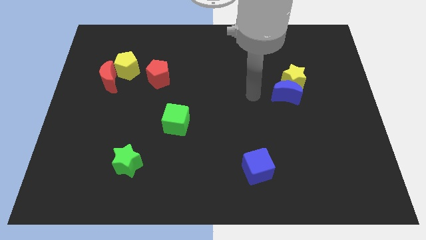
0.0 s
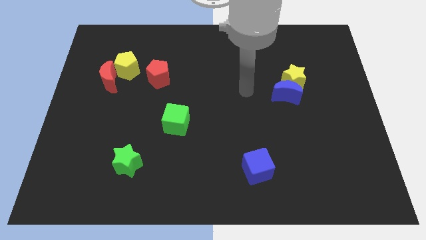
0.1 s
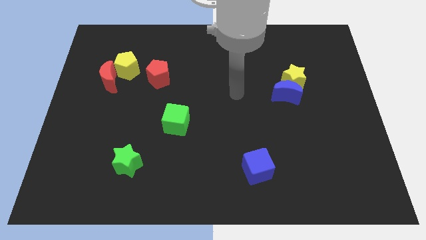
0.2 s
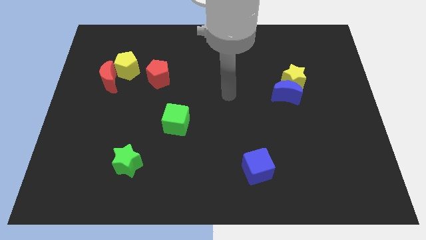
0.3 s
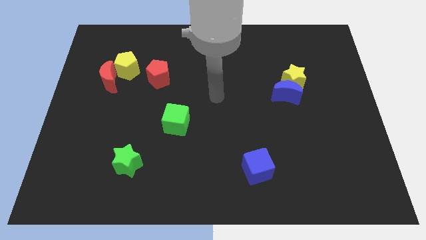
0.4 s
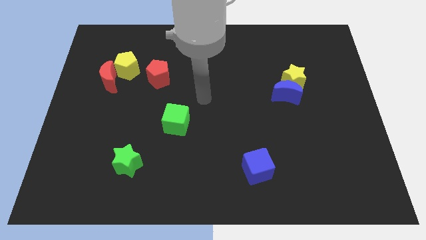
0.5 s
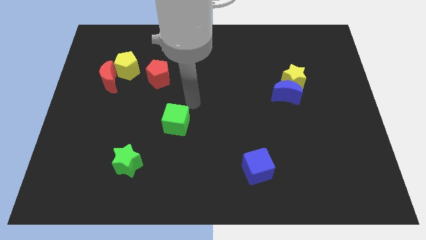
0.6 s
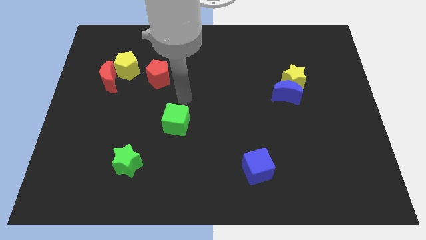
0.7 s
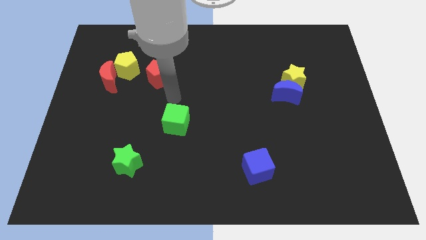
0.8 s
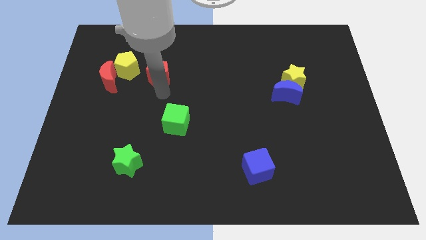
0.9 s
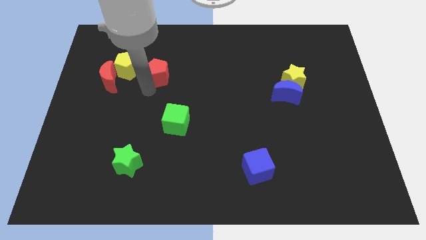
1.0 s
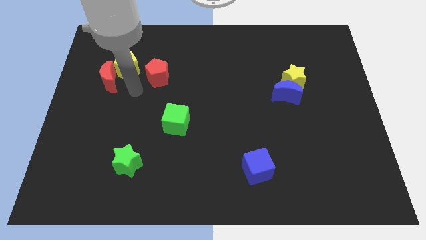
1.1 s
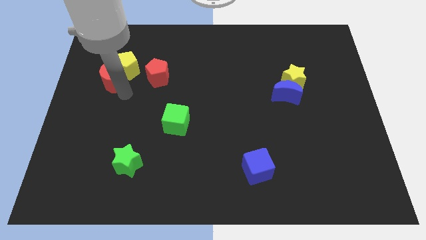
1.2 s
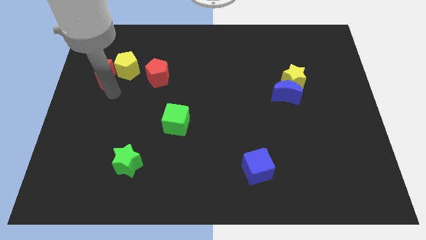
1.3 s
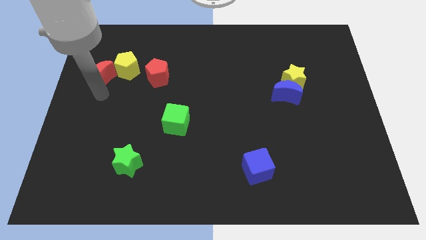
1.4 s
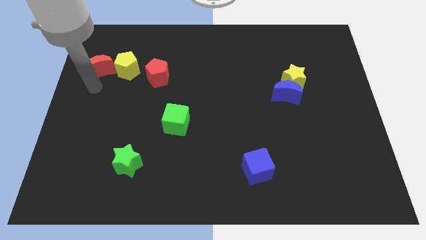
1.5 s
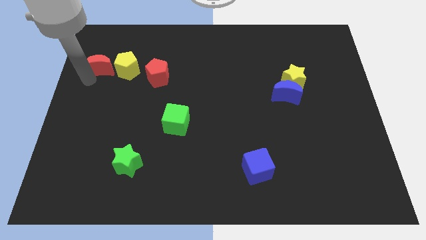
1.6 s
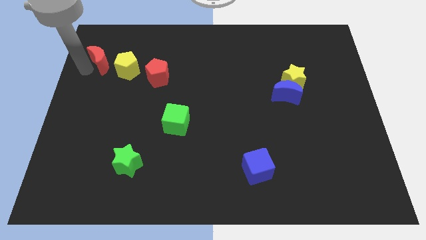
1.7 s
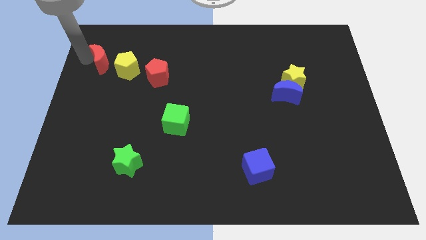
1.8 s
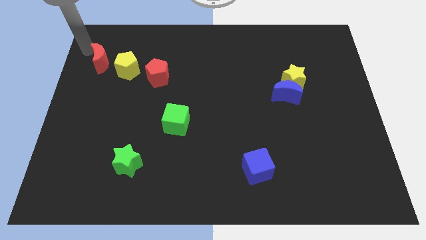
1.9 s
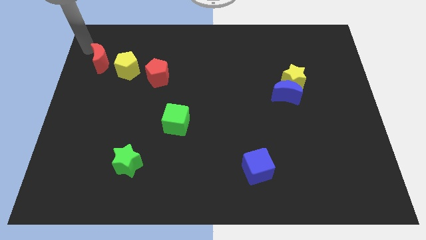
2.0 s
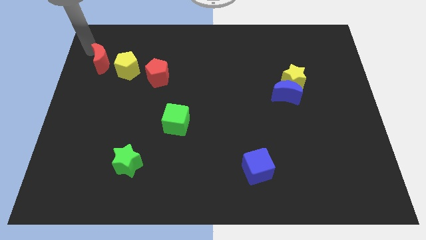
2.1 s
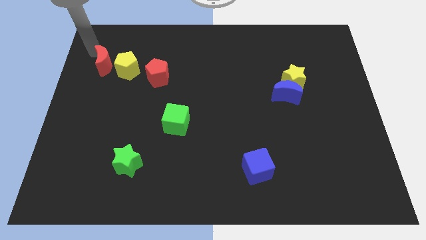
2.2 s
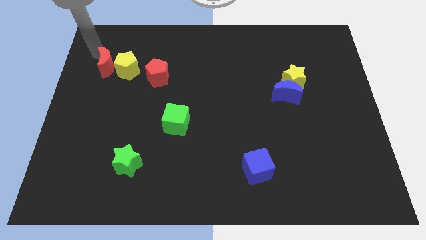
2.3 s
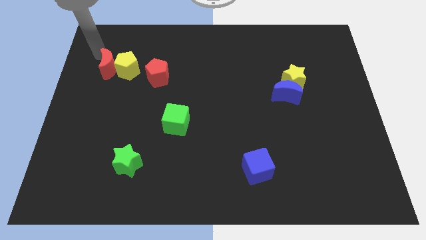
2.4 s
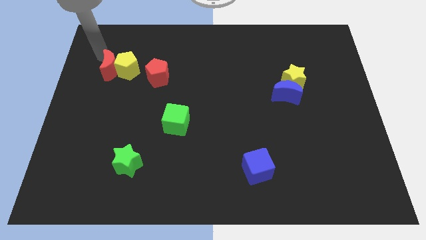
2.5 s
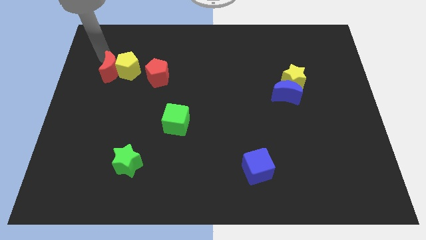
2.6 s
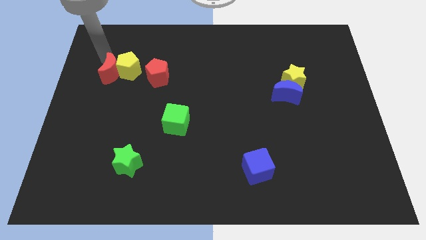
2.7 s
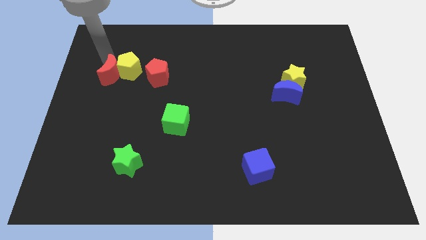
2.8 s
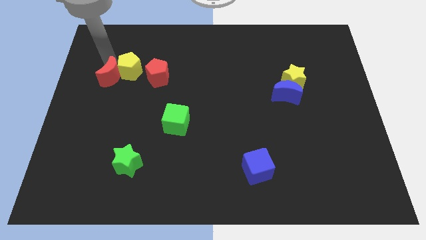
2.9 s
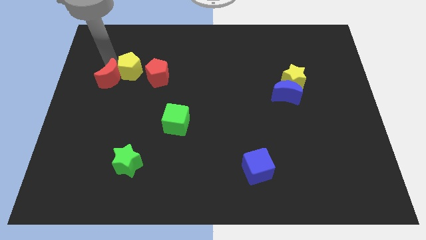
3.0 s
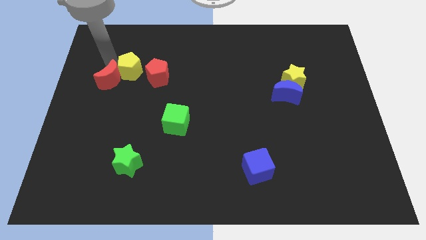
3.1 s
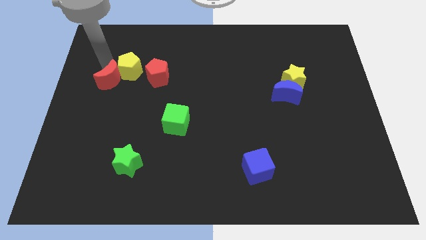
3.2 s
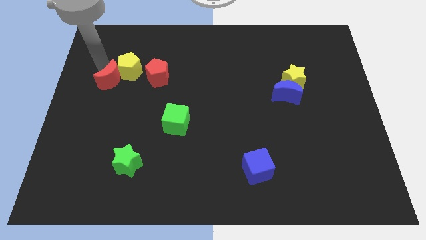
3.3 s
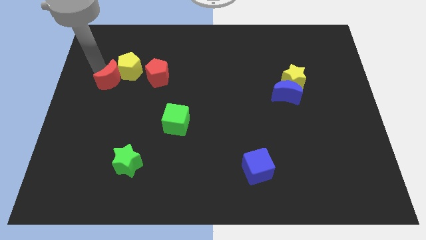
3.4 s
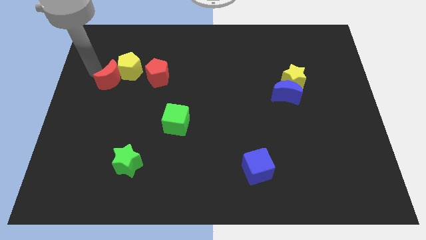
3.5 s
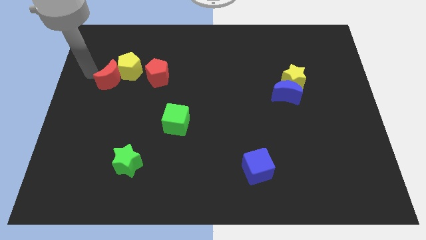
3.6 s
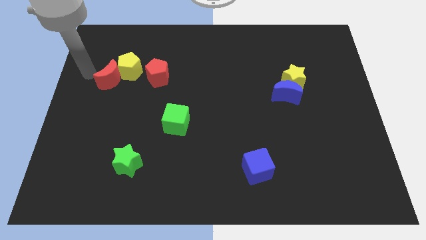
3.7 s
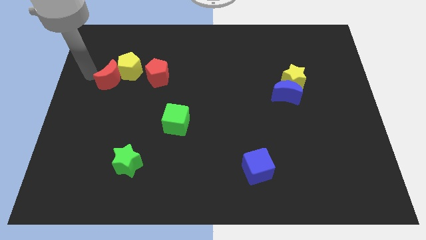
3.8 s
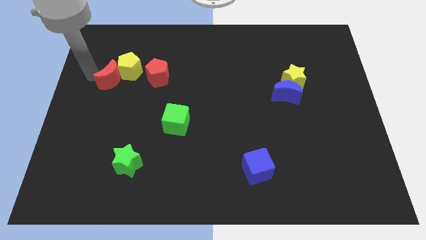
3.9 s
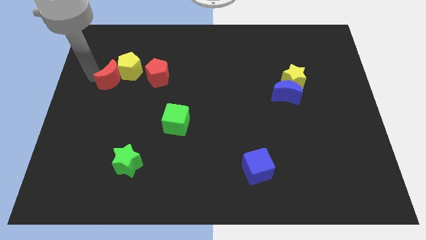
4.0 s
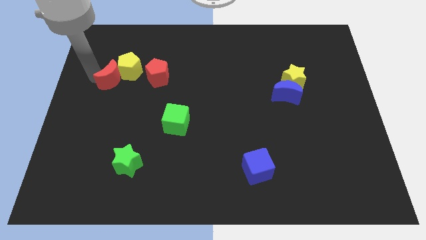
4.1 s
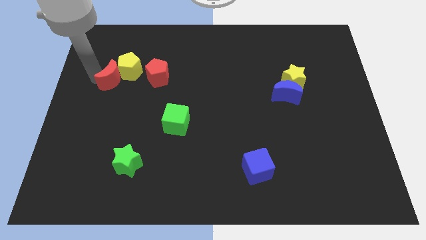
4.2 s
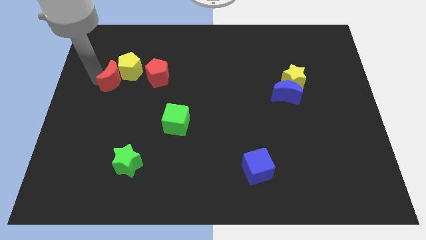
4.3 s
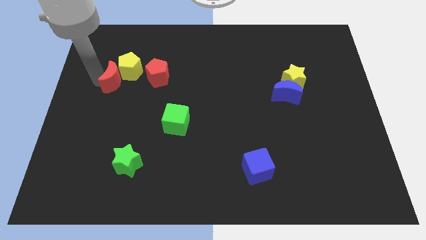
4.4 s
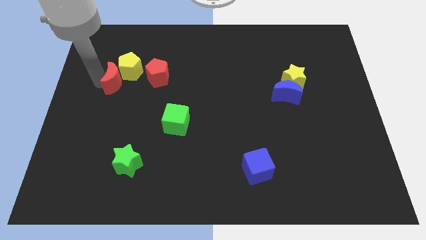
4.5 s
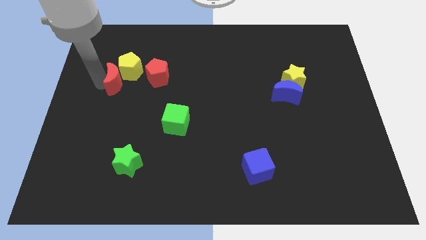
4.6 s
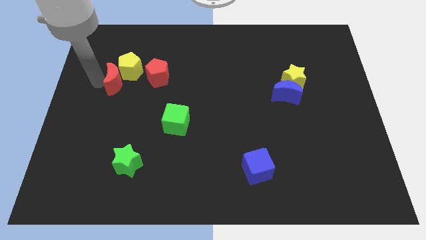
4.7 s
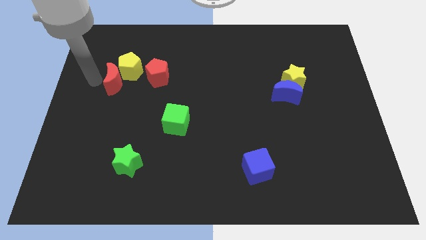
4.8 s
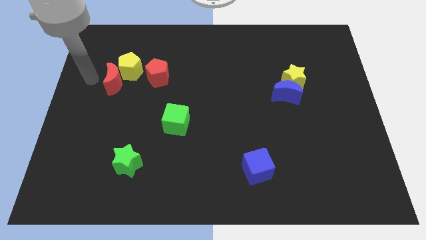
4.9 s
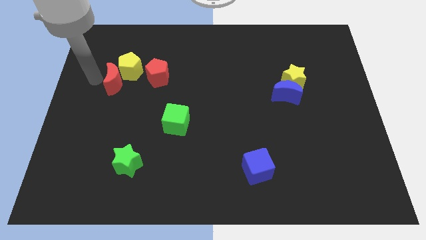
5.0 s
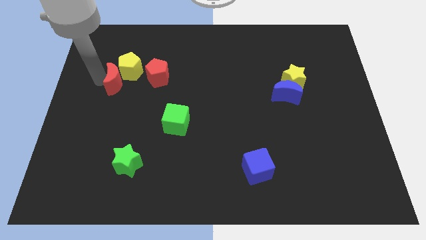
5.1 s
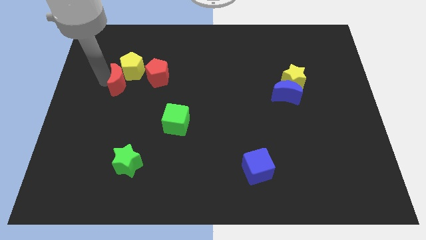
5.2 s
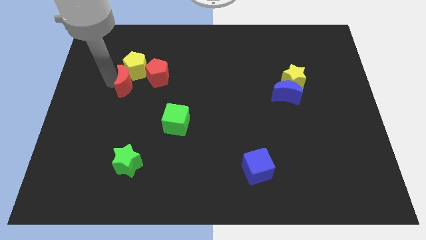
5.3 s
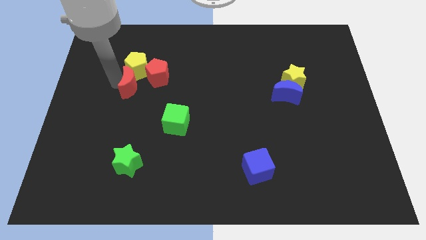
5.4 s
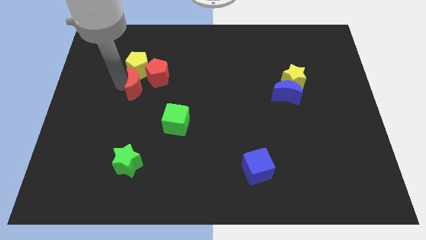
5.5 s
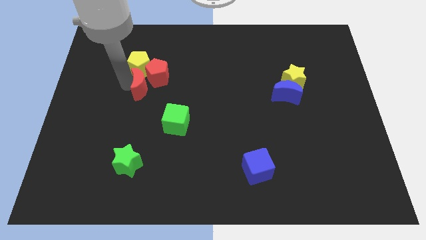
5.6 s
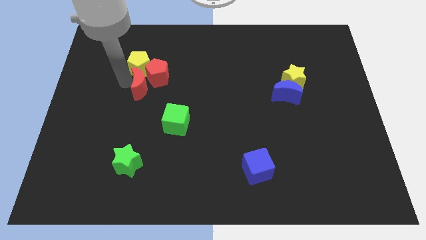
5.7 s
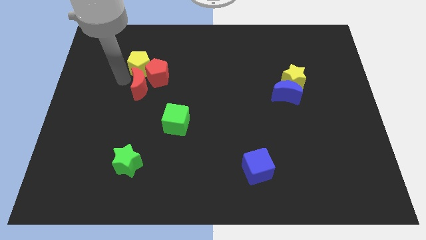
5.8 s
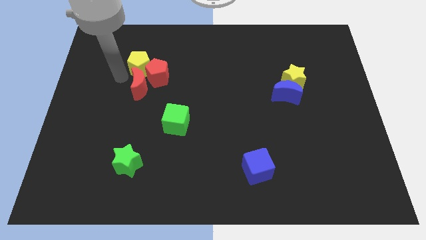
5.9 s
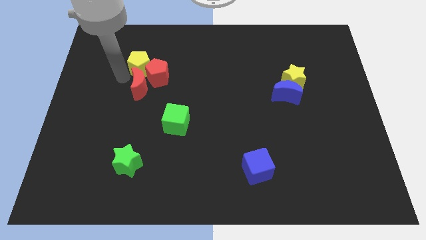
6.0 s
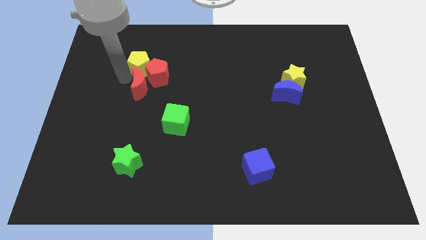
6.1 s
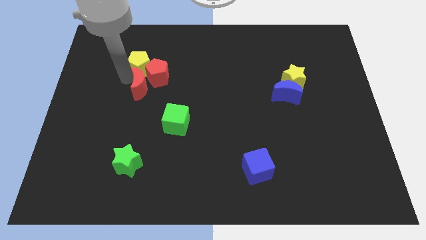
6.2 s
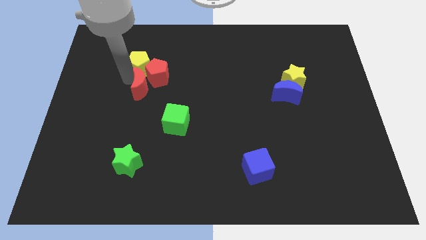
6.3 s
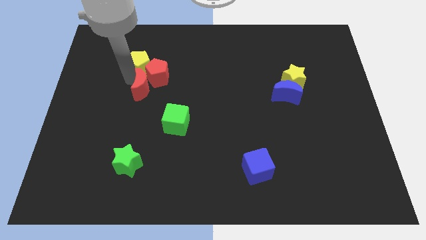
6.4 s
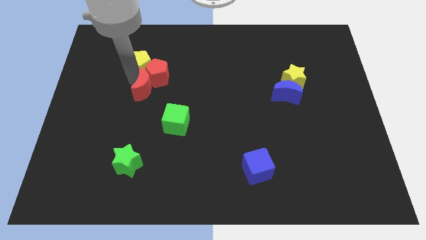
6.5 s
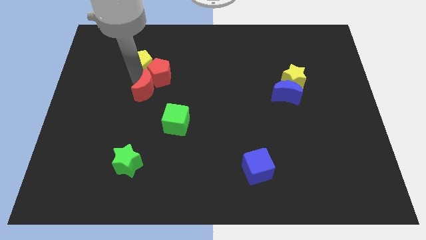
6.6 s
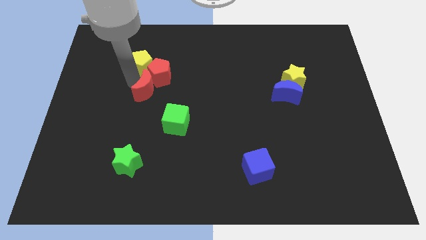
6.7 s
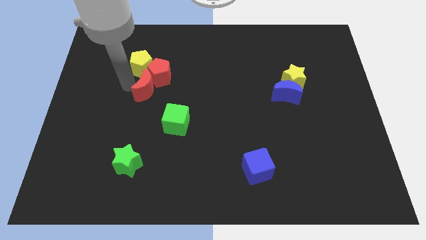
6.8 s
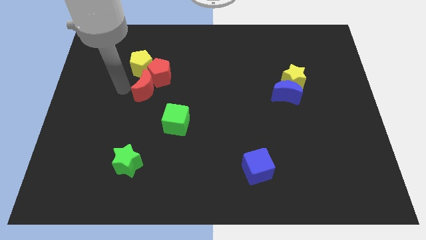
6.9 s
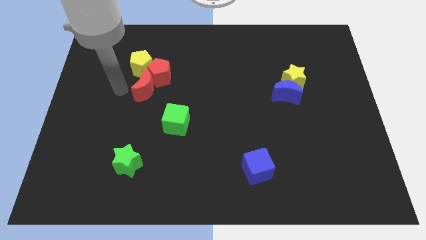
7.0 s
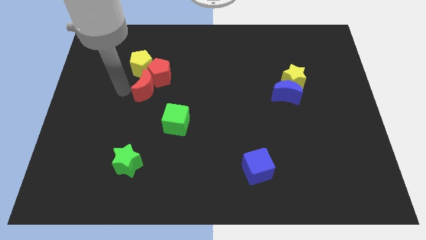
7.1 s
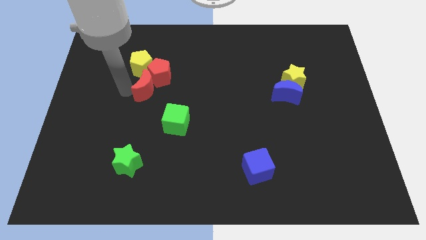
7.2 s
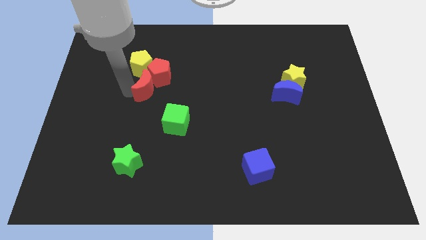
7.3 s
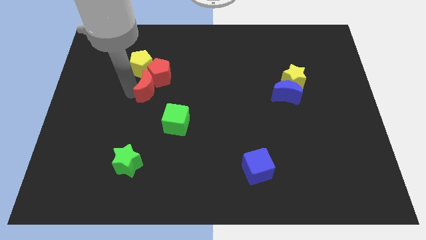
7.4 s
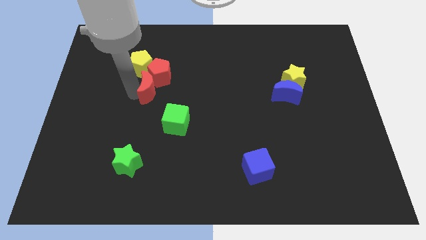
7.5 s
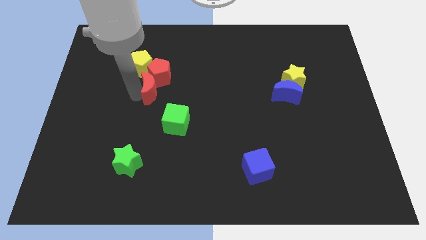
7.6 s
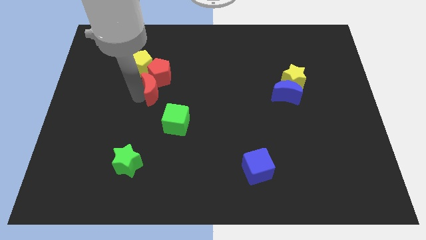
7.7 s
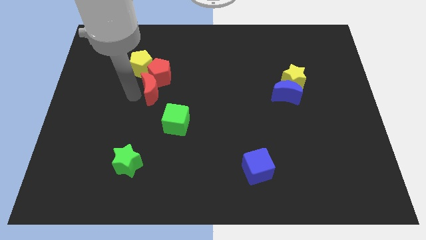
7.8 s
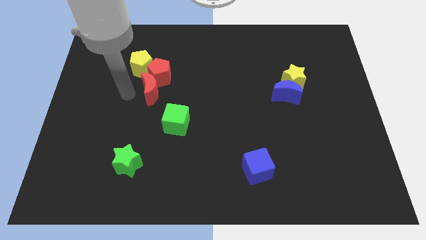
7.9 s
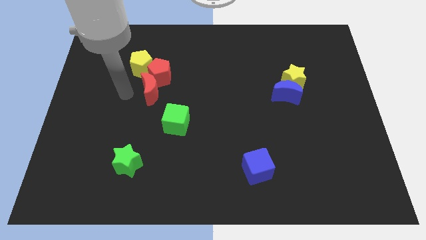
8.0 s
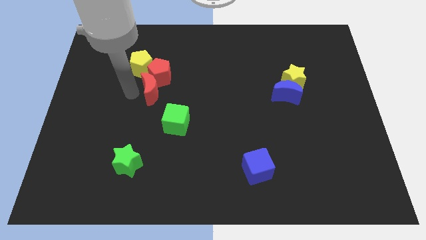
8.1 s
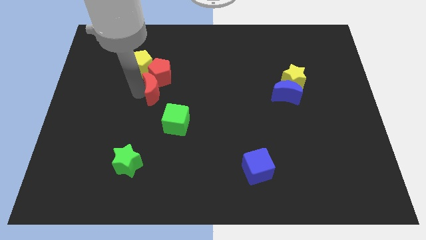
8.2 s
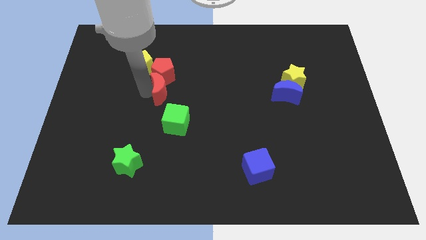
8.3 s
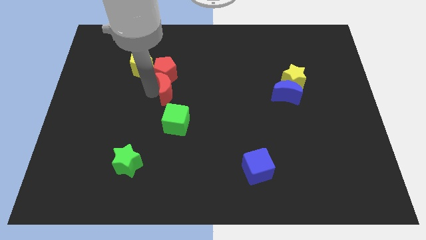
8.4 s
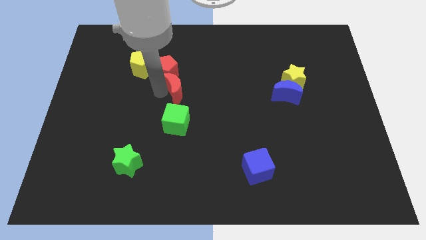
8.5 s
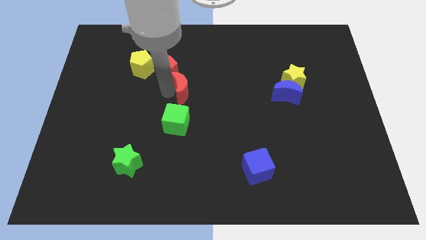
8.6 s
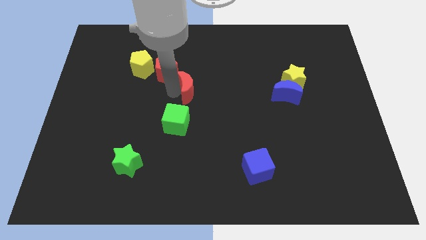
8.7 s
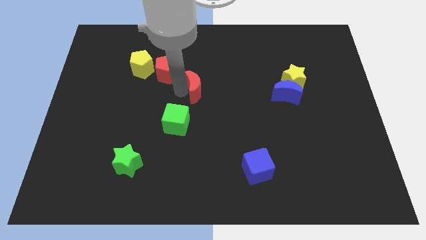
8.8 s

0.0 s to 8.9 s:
slide the red moon to the right
